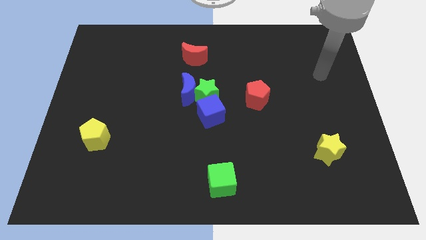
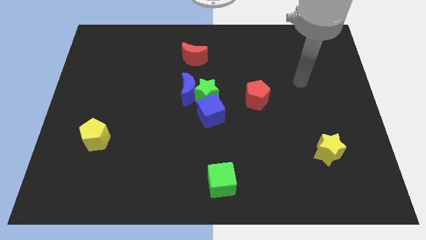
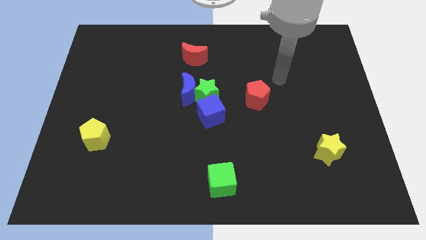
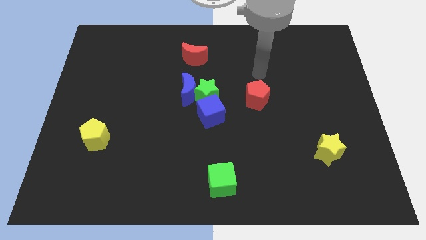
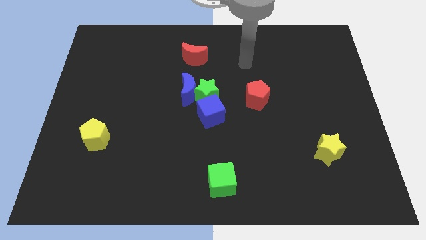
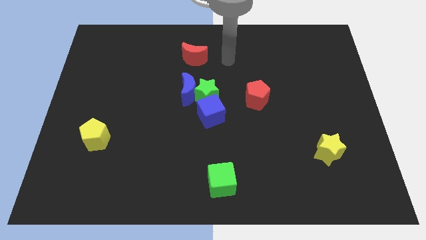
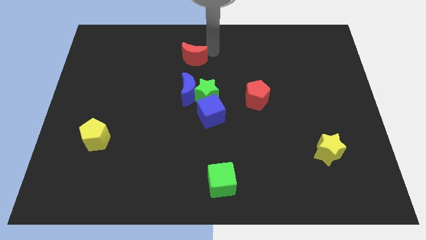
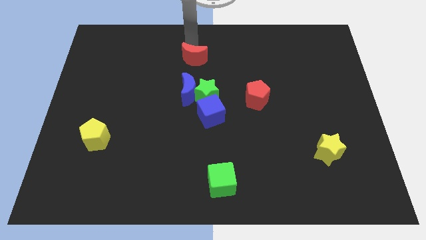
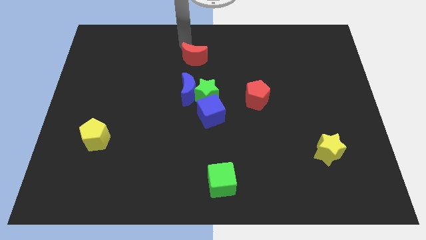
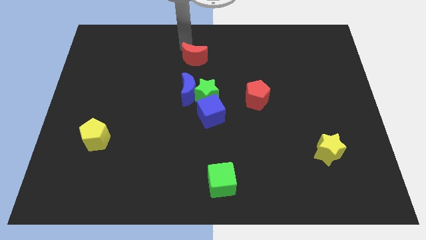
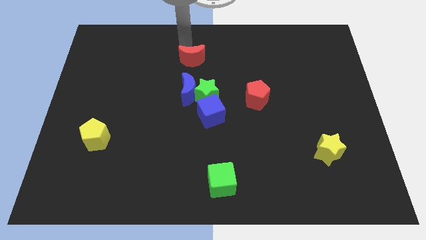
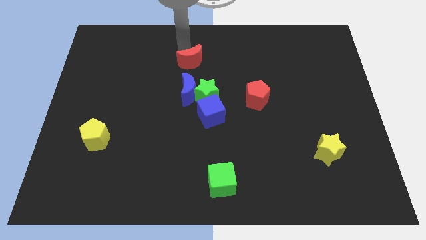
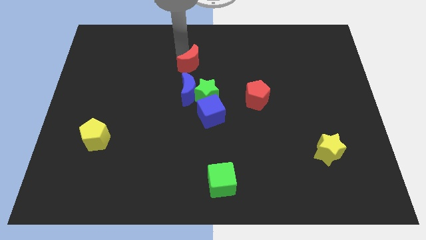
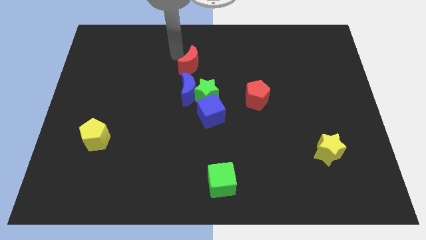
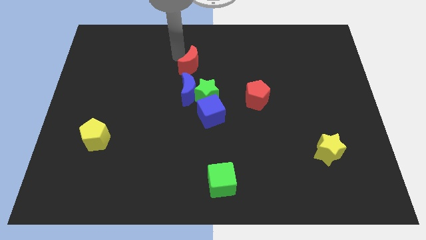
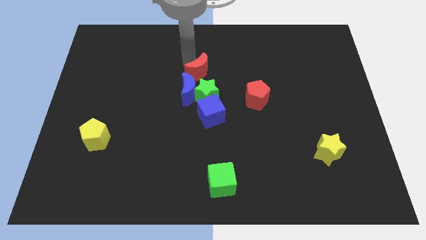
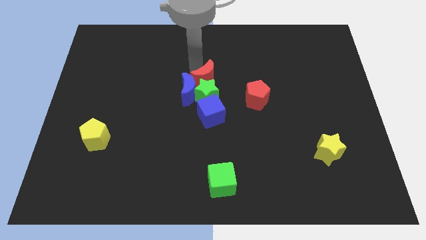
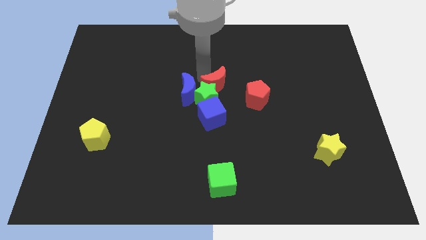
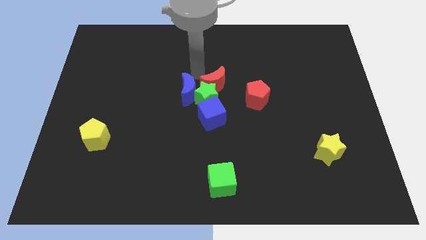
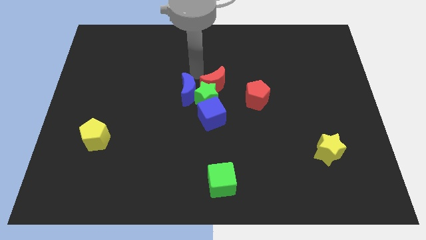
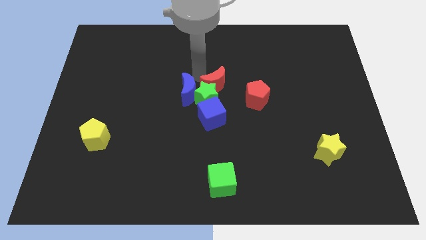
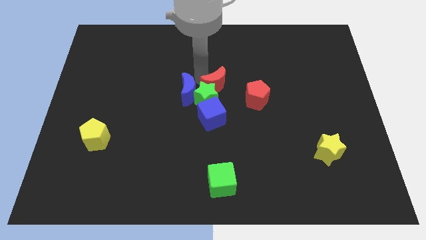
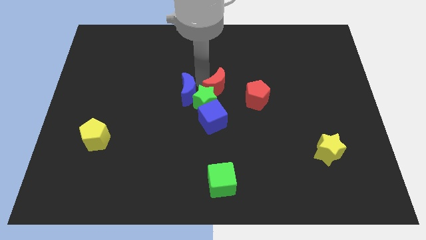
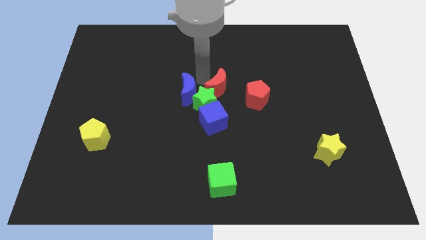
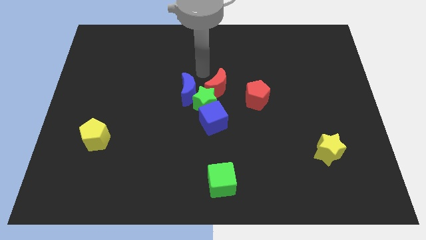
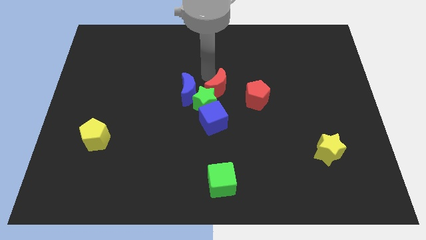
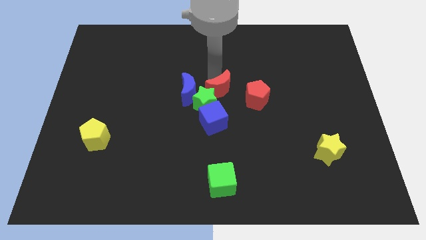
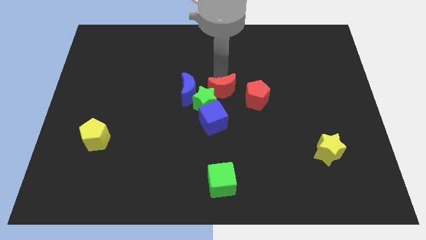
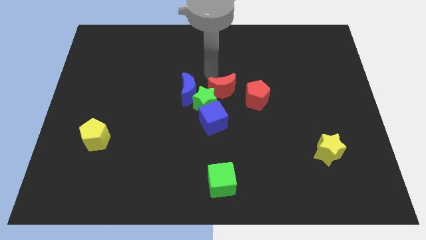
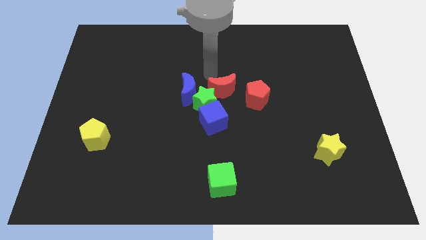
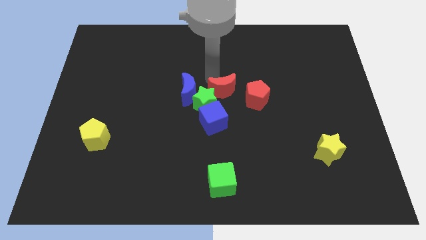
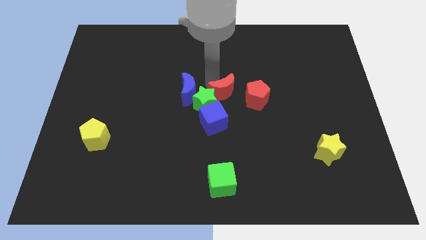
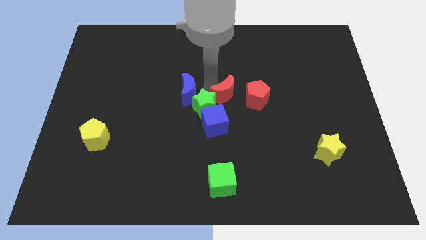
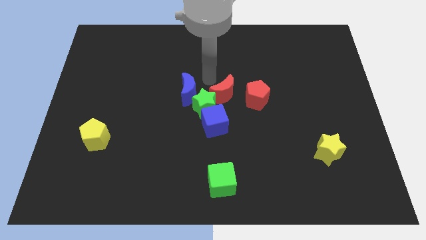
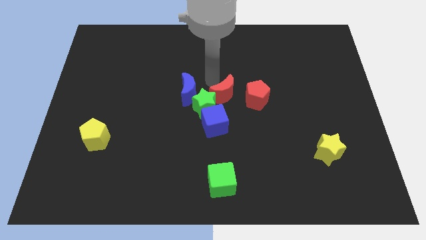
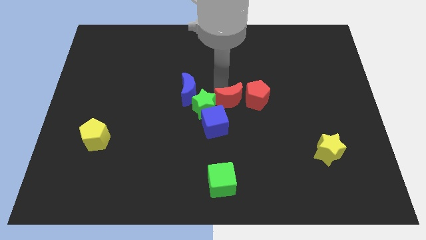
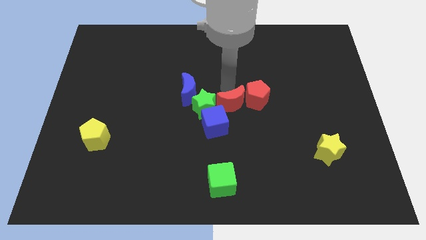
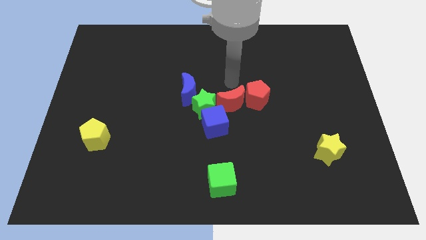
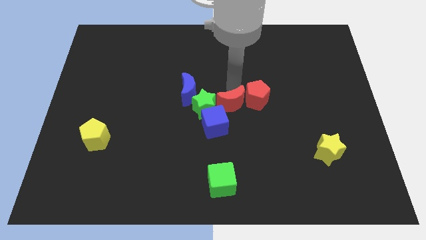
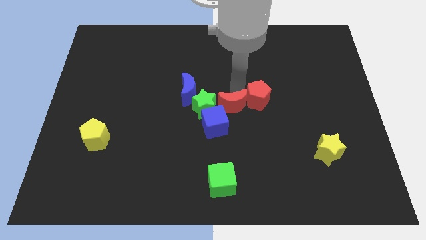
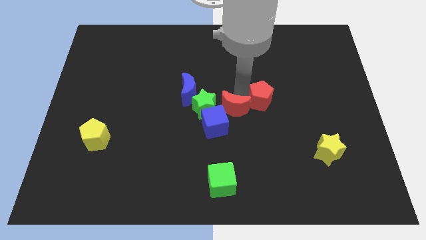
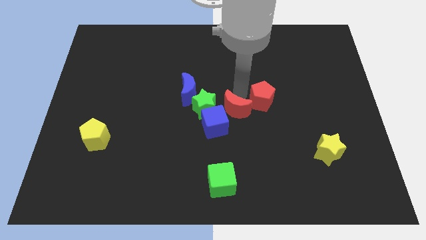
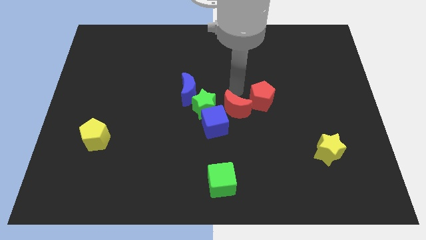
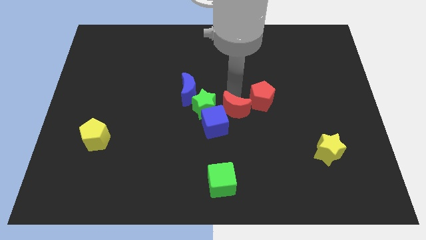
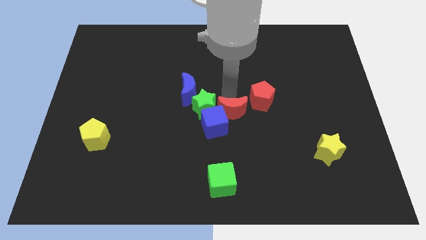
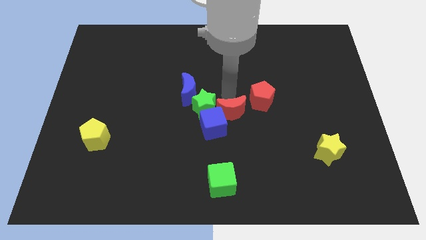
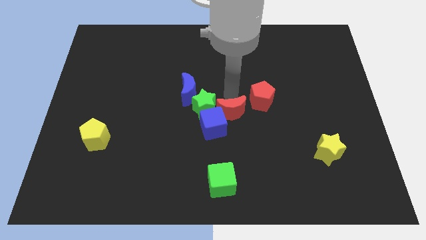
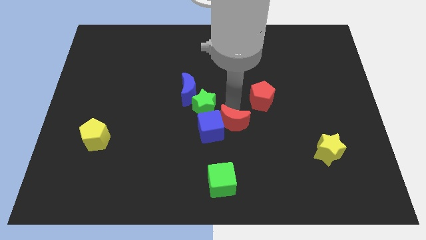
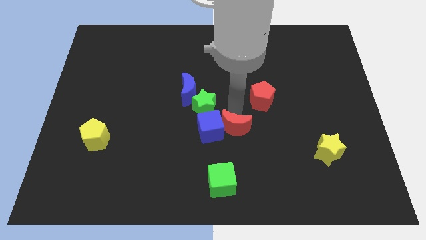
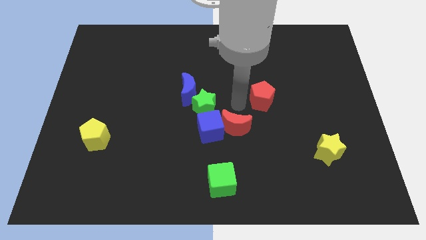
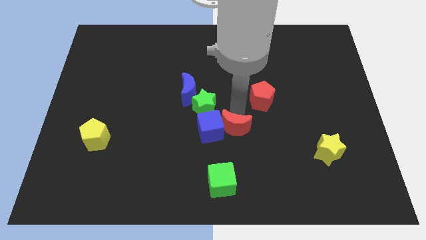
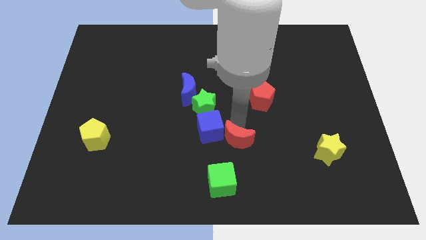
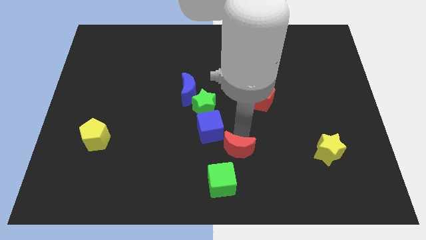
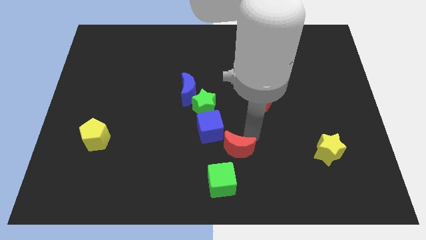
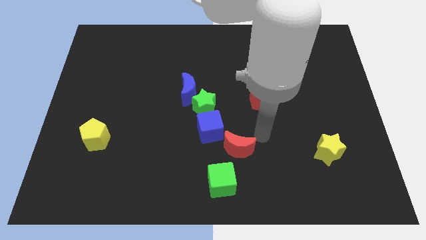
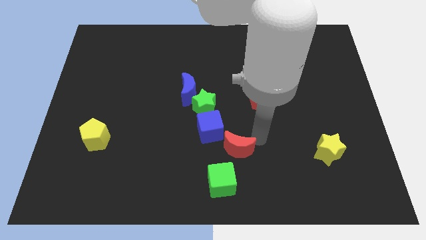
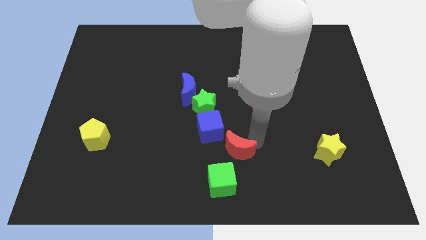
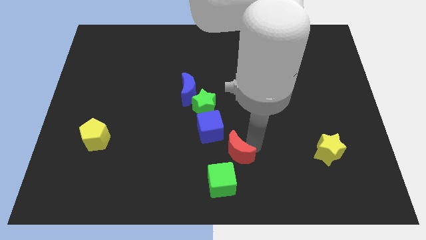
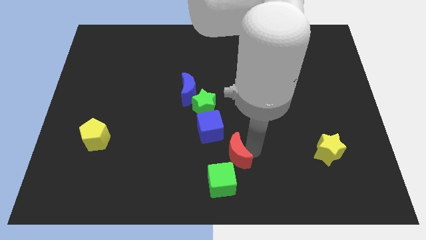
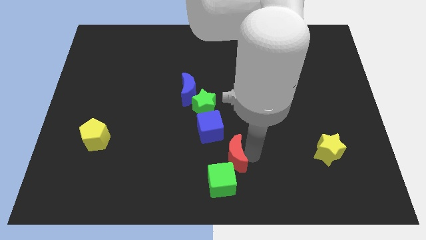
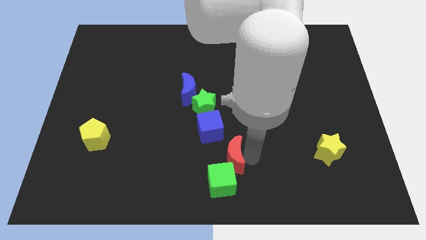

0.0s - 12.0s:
slide the red moon towards the green cube

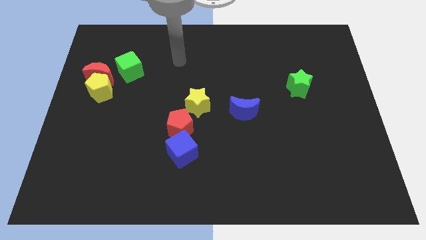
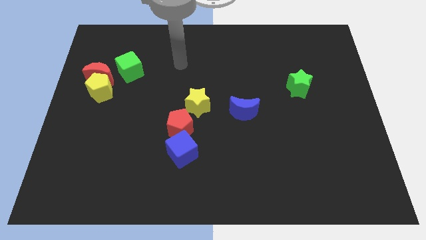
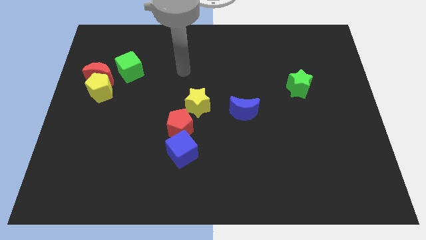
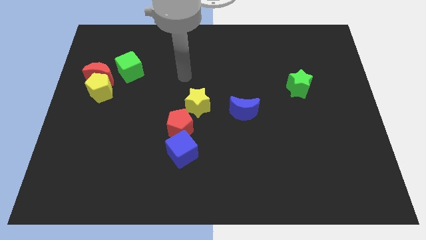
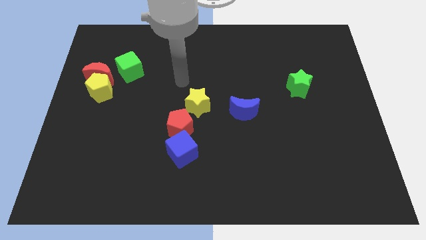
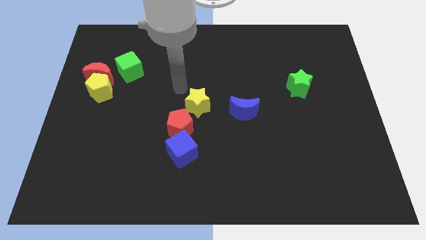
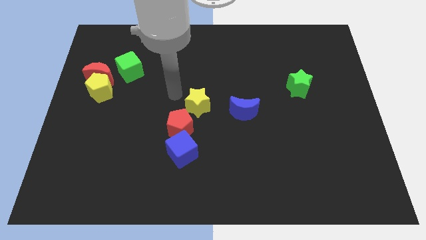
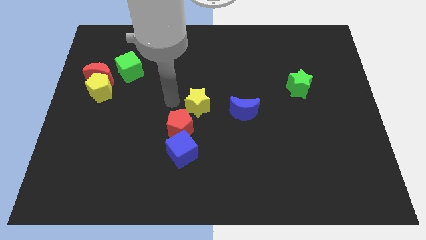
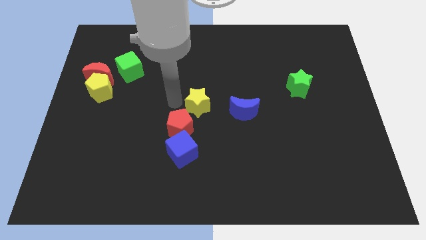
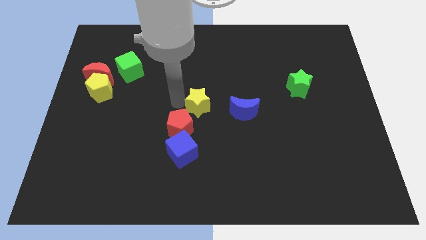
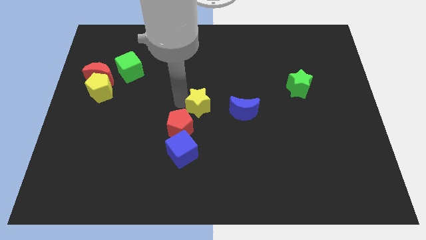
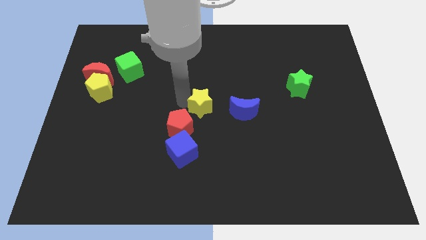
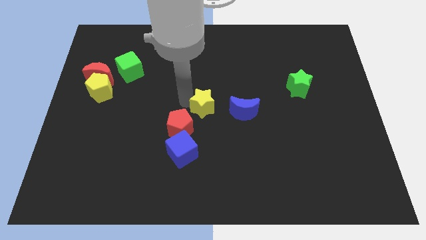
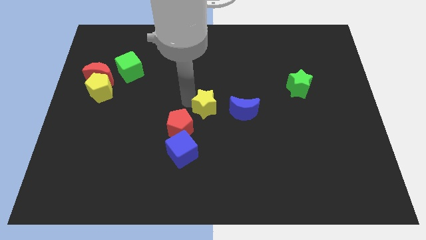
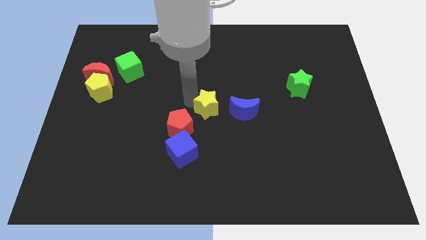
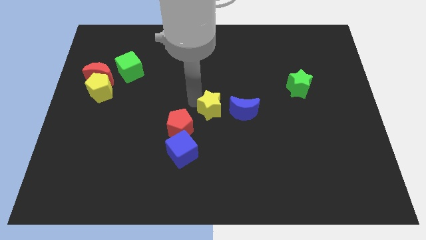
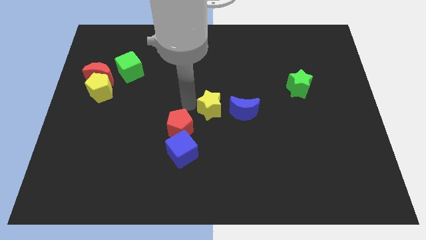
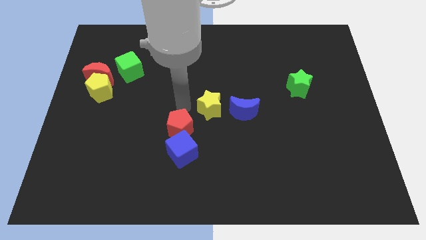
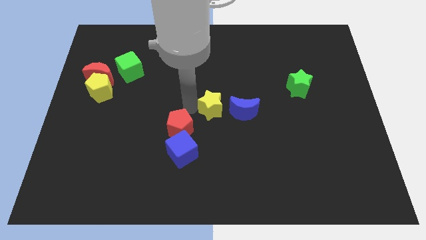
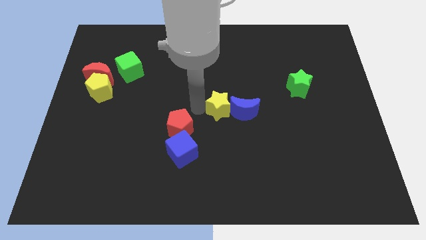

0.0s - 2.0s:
push the yellow star next to the blue moon
